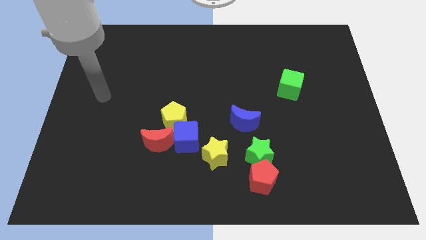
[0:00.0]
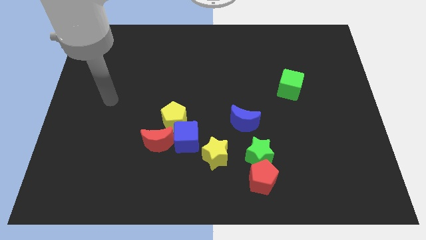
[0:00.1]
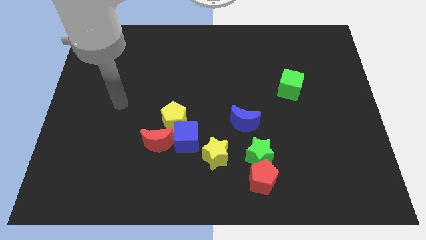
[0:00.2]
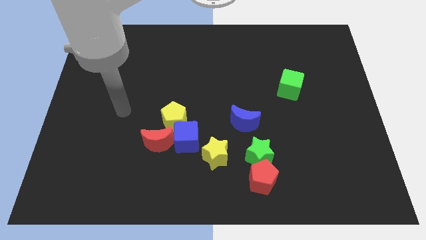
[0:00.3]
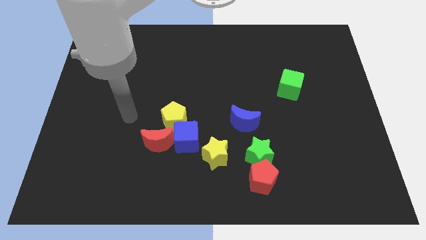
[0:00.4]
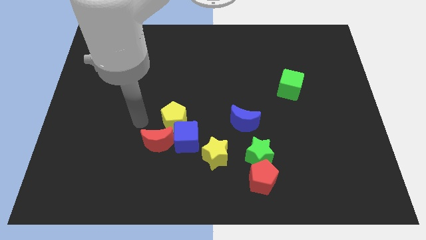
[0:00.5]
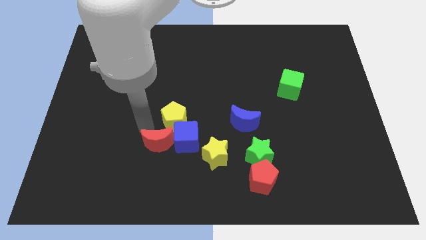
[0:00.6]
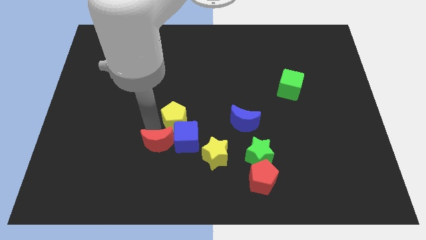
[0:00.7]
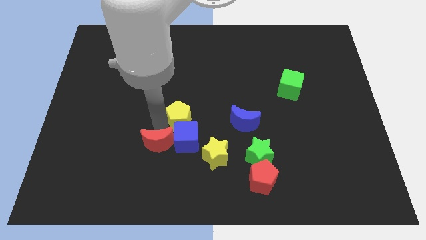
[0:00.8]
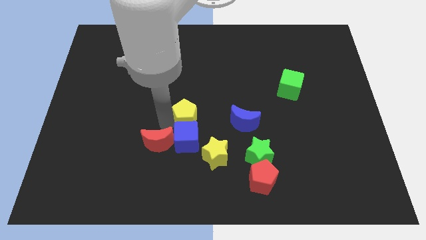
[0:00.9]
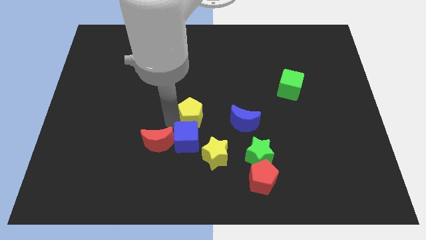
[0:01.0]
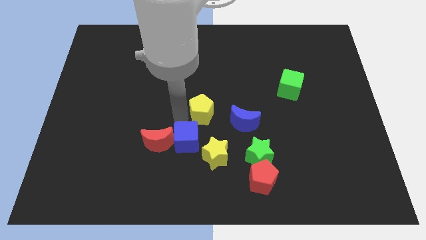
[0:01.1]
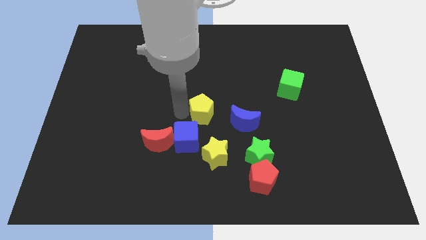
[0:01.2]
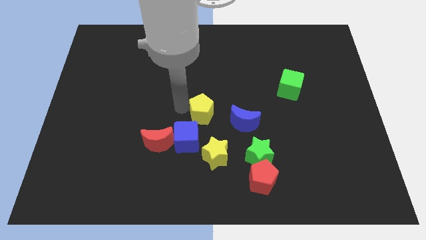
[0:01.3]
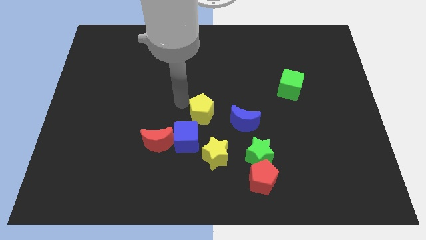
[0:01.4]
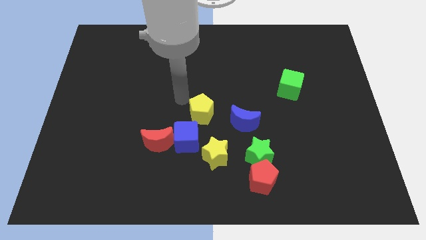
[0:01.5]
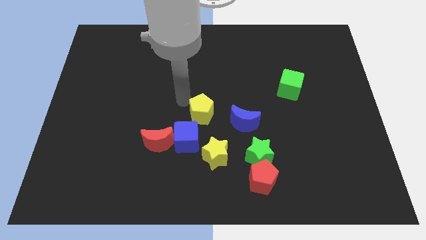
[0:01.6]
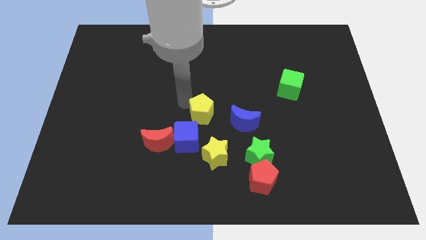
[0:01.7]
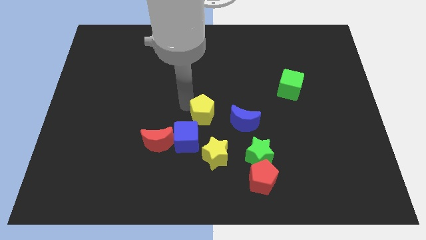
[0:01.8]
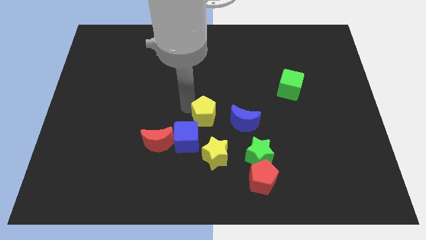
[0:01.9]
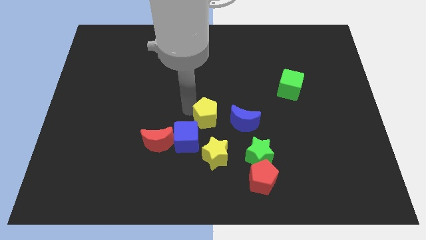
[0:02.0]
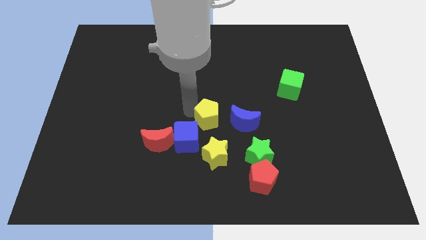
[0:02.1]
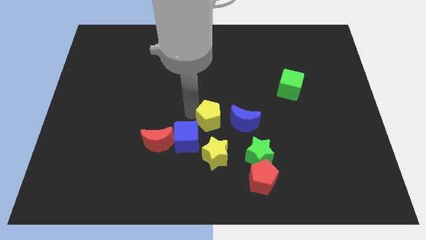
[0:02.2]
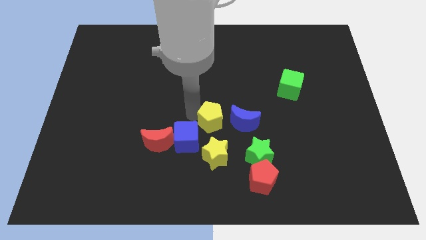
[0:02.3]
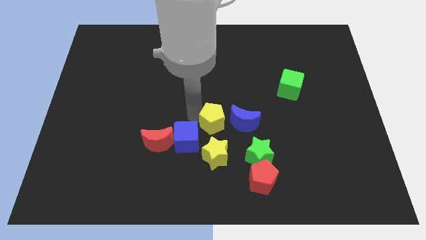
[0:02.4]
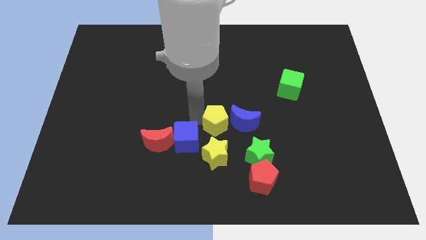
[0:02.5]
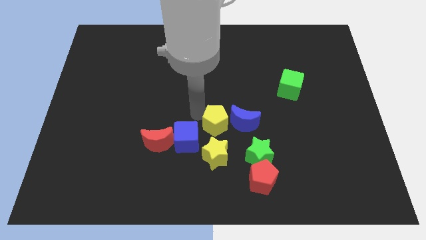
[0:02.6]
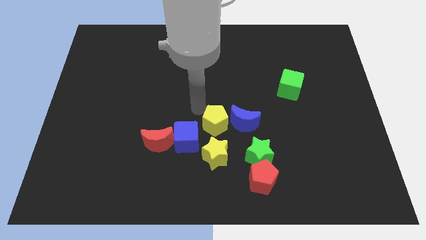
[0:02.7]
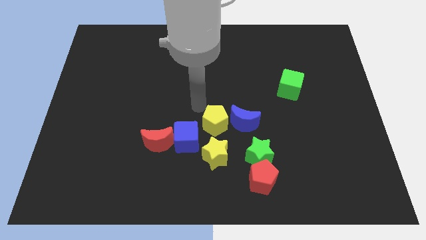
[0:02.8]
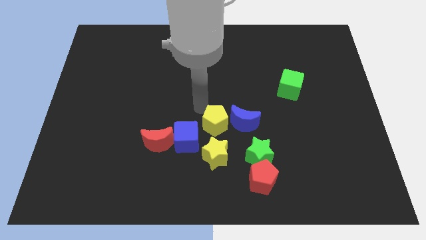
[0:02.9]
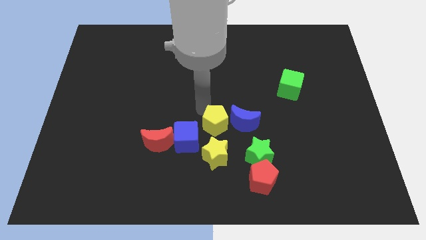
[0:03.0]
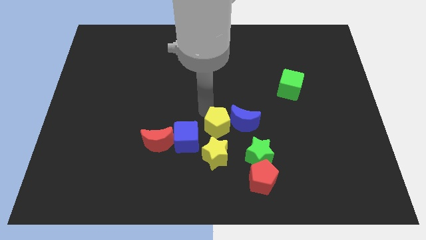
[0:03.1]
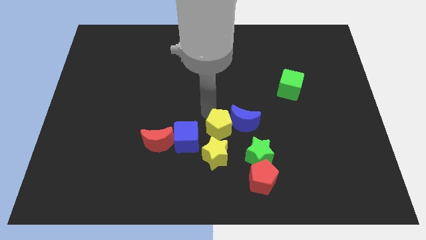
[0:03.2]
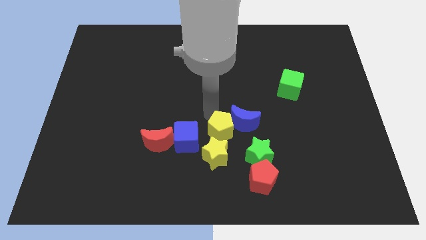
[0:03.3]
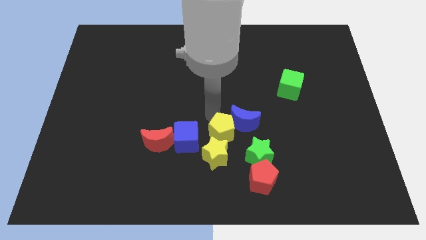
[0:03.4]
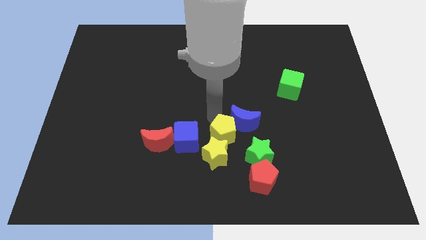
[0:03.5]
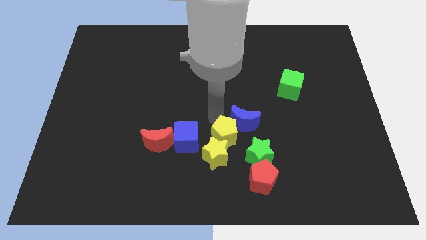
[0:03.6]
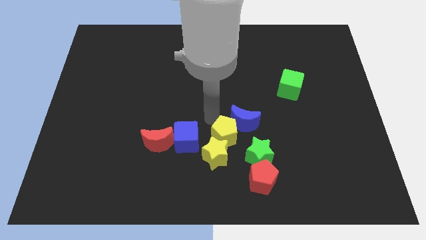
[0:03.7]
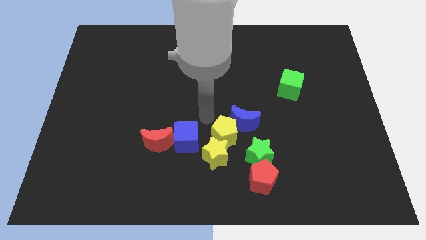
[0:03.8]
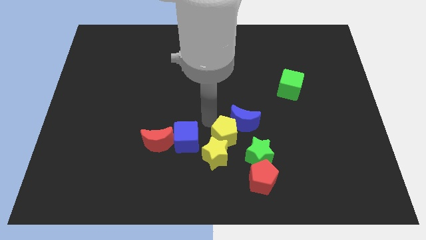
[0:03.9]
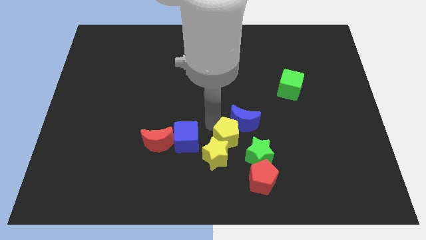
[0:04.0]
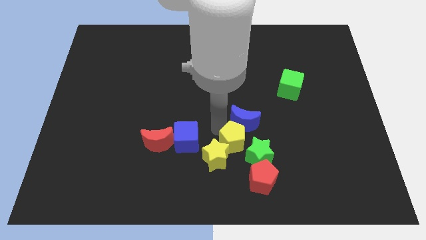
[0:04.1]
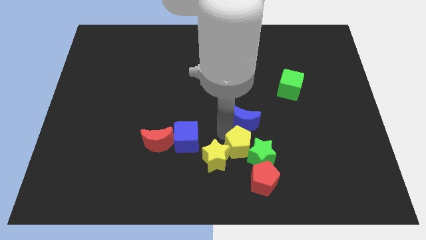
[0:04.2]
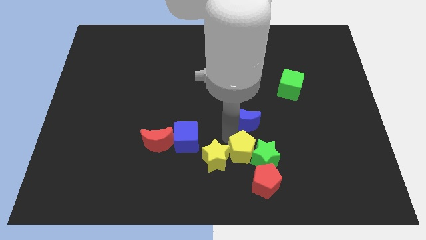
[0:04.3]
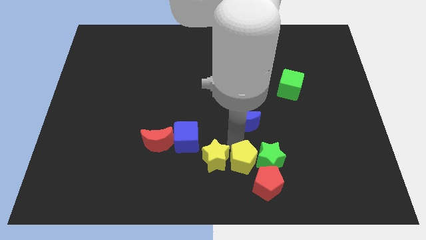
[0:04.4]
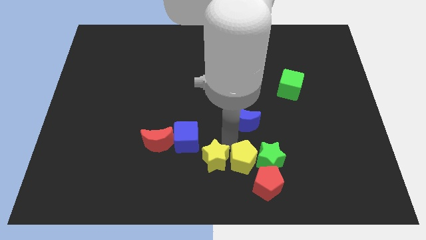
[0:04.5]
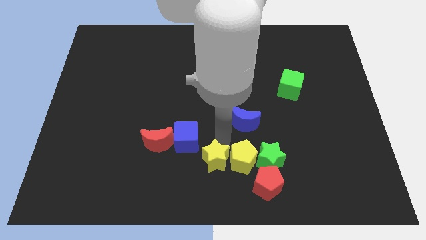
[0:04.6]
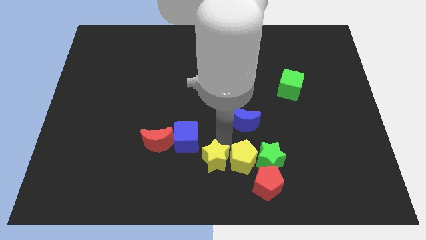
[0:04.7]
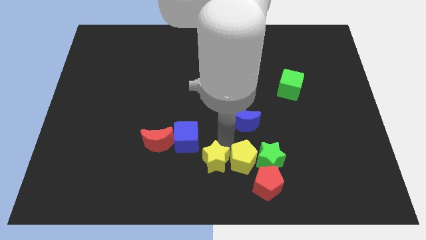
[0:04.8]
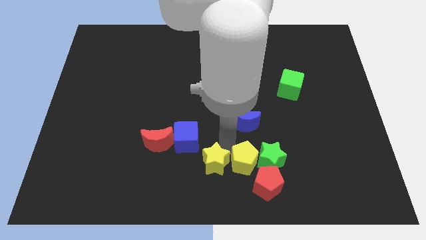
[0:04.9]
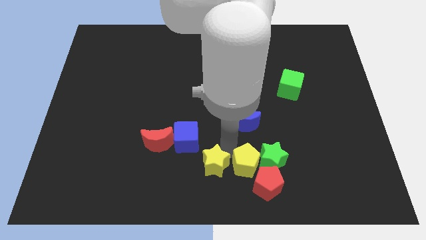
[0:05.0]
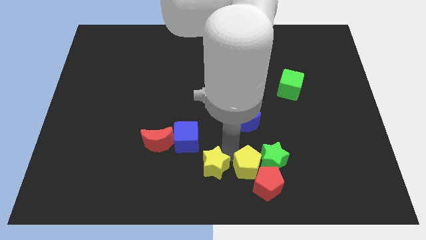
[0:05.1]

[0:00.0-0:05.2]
slide the yellow pentagon to the red pentagon

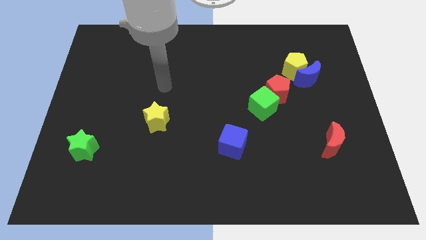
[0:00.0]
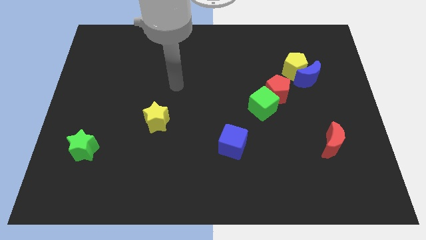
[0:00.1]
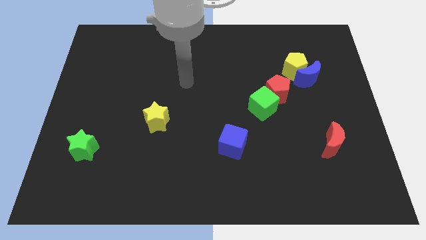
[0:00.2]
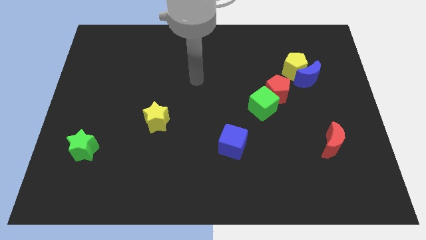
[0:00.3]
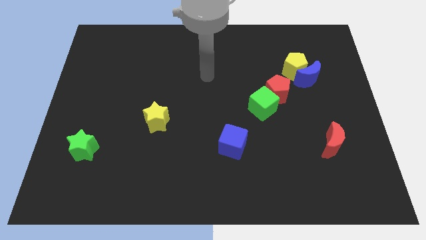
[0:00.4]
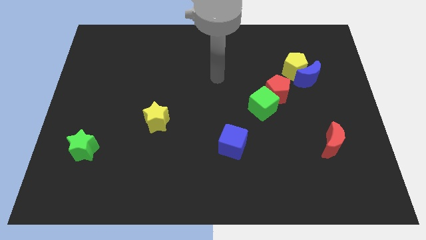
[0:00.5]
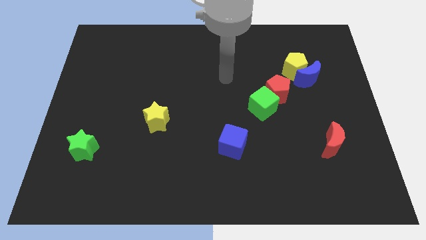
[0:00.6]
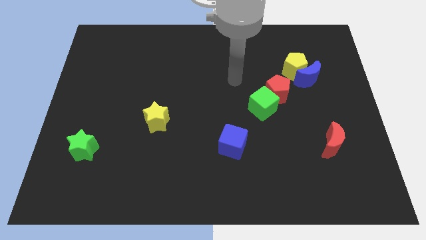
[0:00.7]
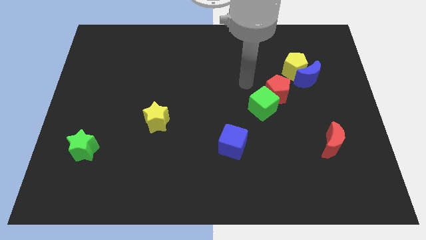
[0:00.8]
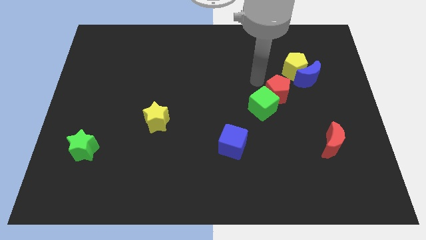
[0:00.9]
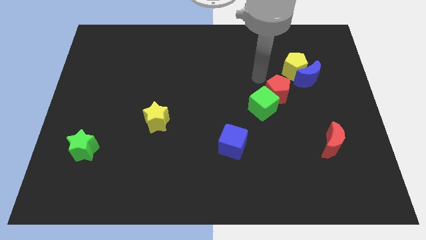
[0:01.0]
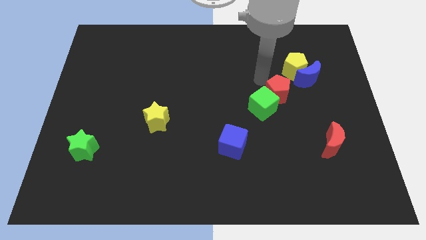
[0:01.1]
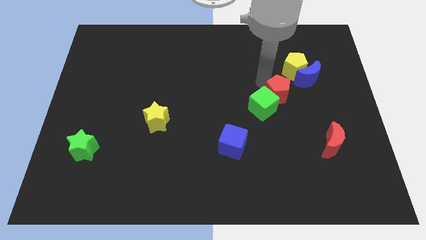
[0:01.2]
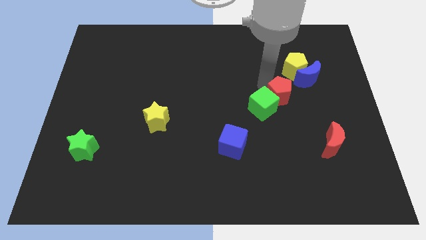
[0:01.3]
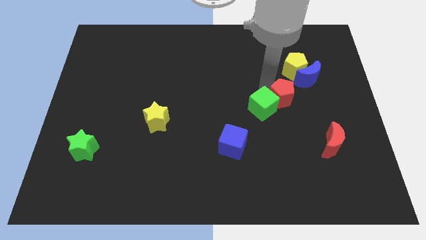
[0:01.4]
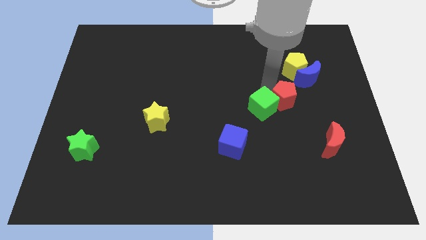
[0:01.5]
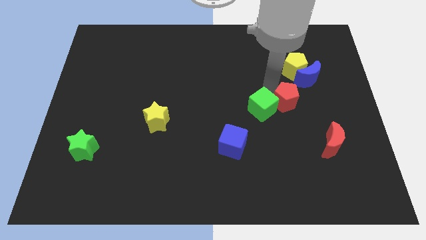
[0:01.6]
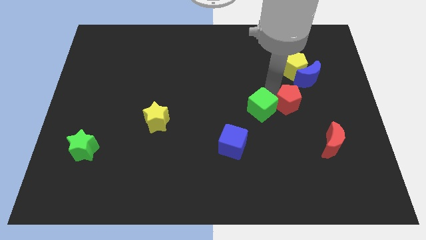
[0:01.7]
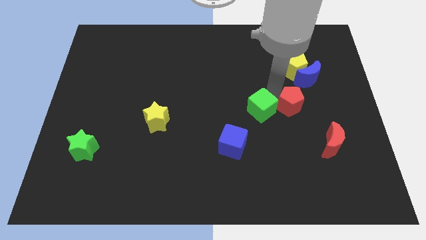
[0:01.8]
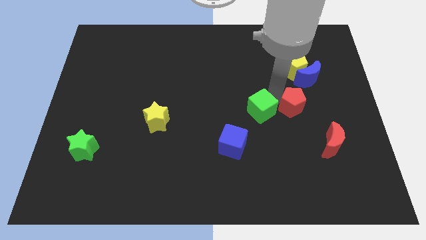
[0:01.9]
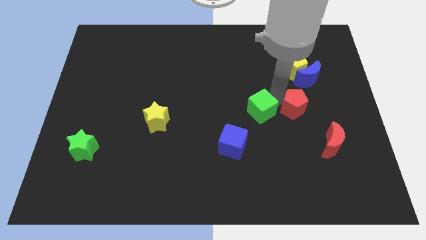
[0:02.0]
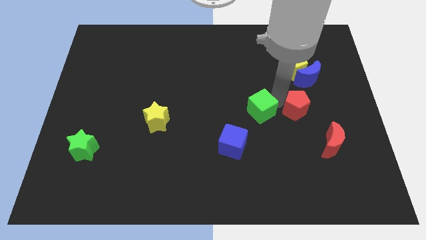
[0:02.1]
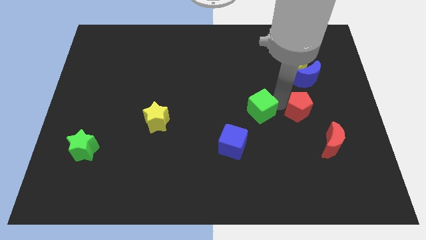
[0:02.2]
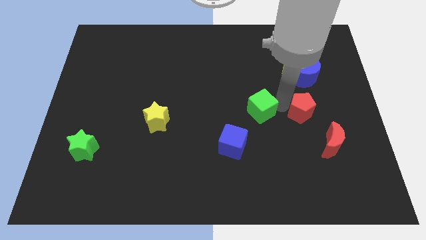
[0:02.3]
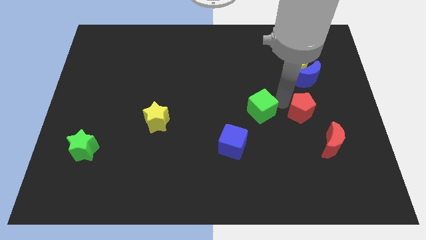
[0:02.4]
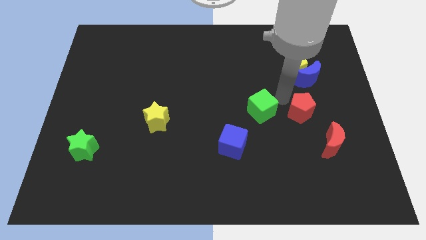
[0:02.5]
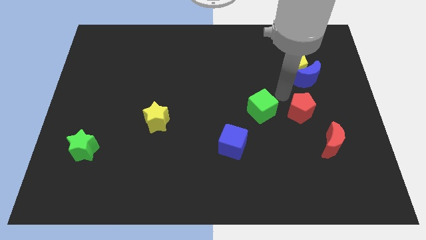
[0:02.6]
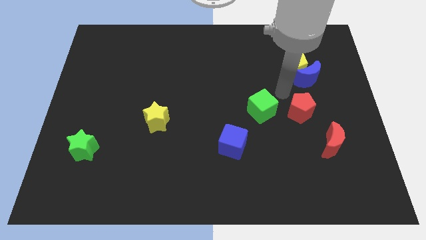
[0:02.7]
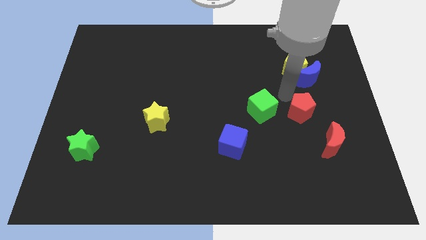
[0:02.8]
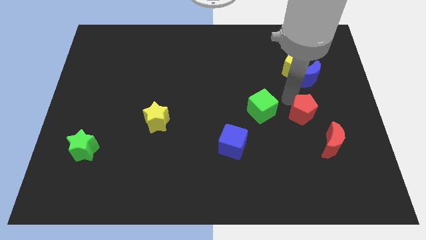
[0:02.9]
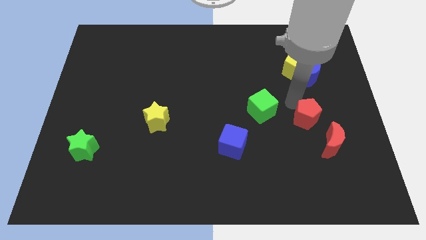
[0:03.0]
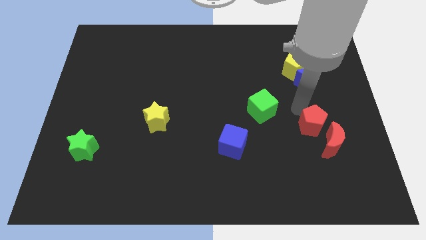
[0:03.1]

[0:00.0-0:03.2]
slide the red pentagon next to the red moon
